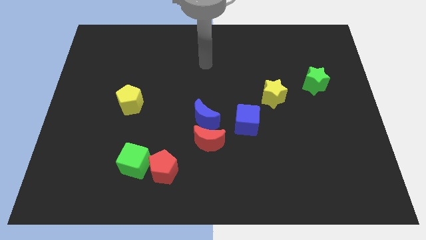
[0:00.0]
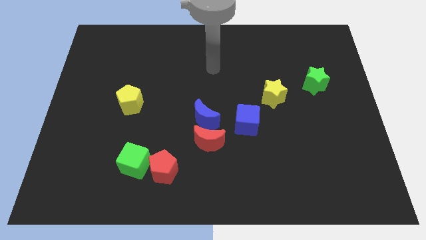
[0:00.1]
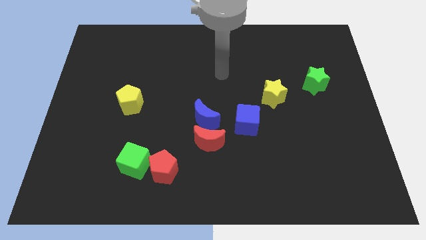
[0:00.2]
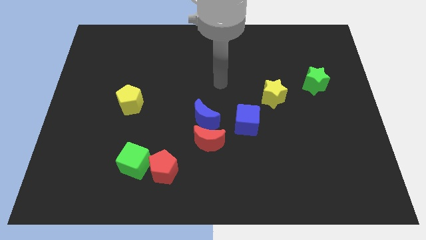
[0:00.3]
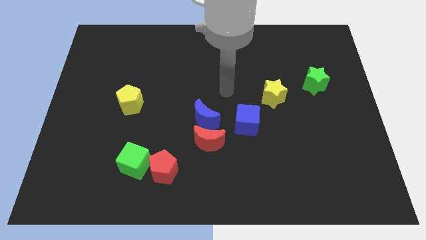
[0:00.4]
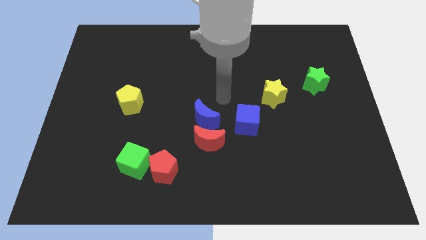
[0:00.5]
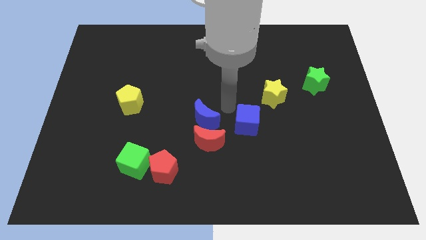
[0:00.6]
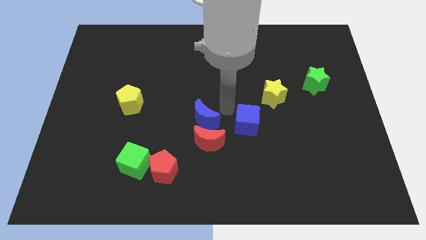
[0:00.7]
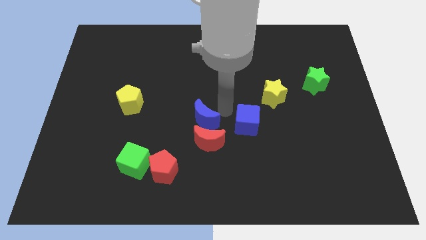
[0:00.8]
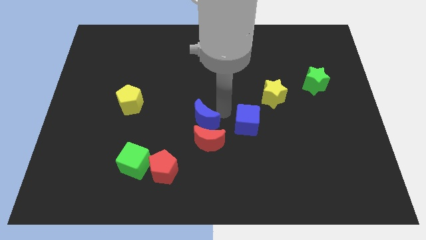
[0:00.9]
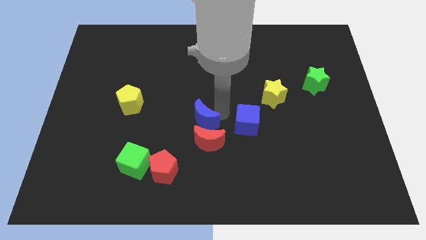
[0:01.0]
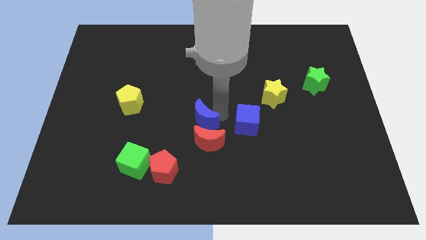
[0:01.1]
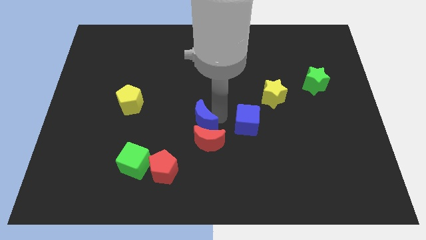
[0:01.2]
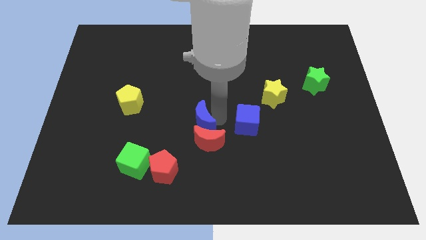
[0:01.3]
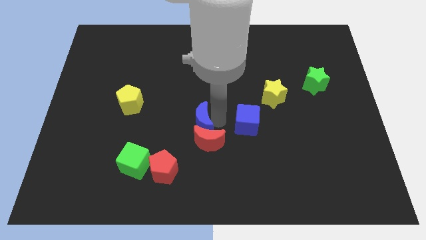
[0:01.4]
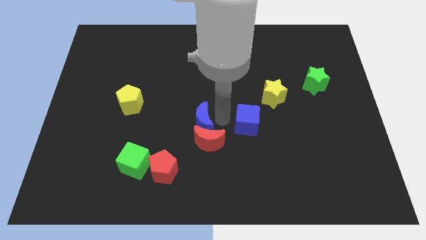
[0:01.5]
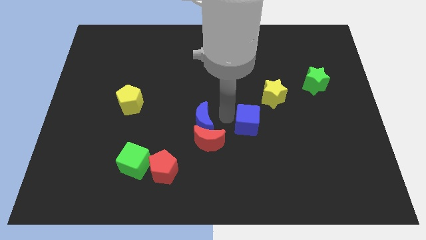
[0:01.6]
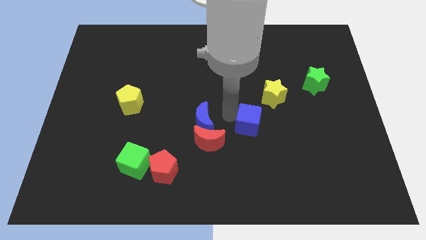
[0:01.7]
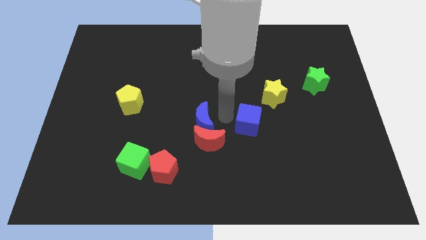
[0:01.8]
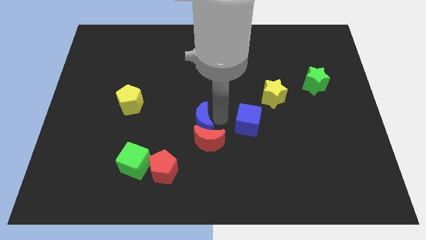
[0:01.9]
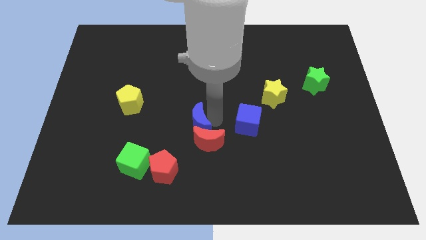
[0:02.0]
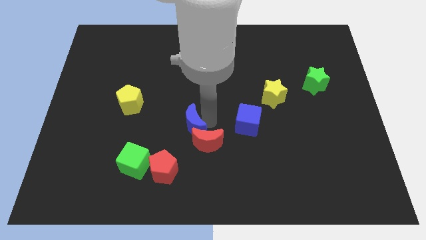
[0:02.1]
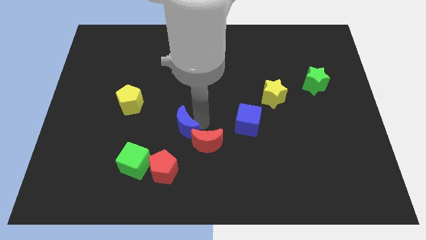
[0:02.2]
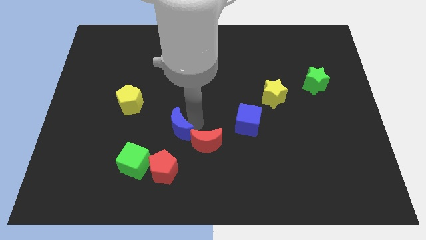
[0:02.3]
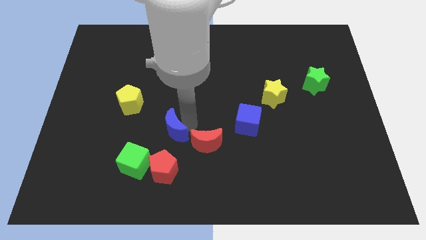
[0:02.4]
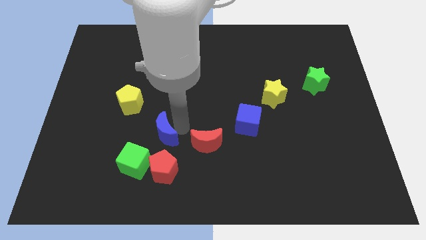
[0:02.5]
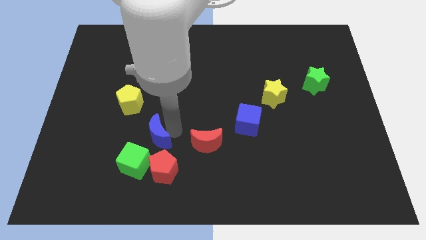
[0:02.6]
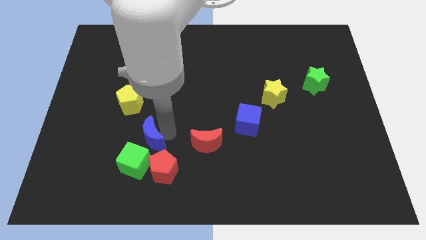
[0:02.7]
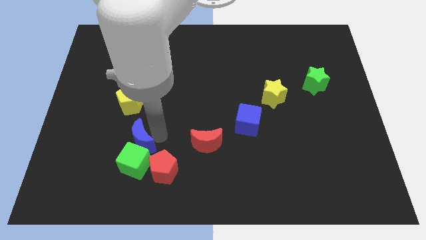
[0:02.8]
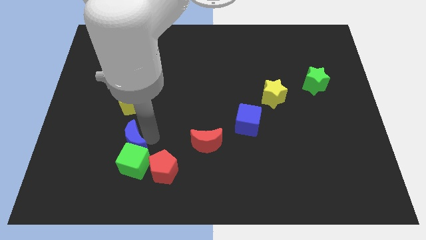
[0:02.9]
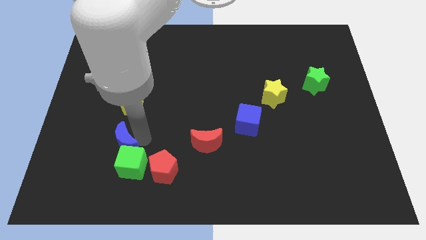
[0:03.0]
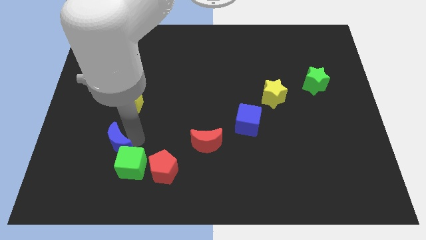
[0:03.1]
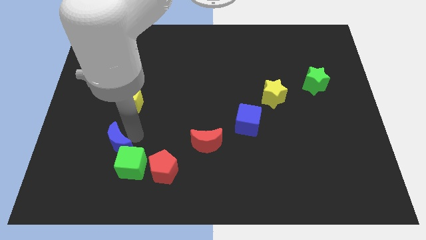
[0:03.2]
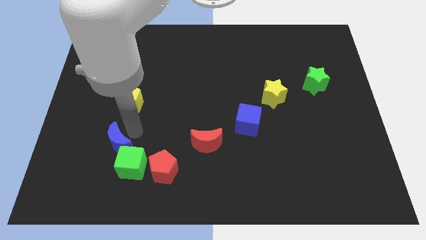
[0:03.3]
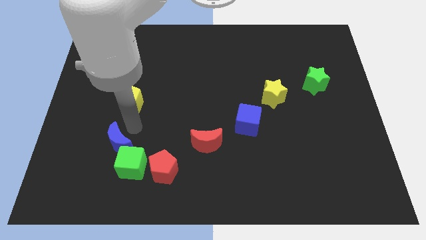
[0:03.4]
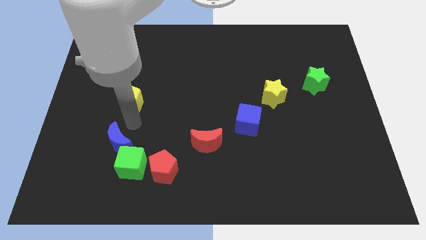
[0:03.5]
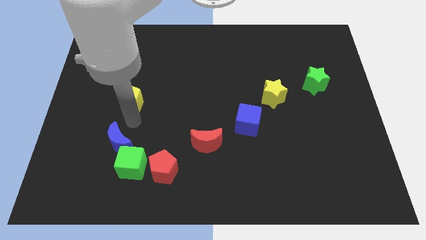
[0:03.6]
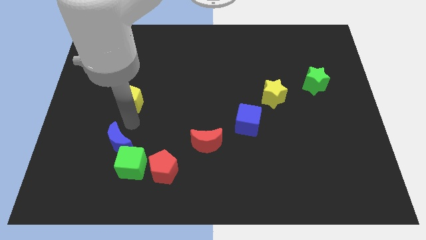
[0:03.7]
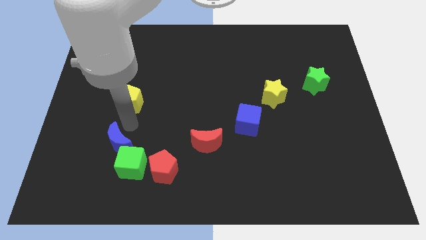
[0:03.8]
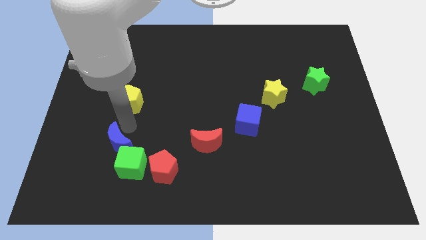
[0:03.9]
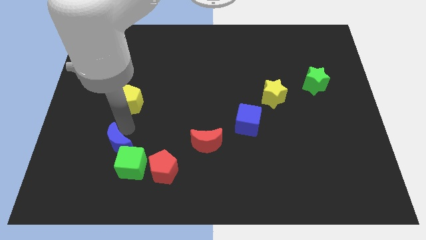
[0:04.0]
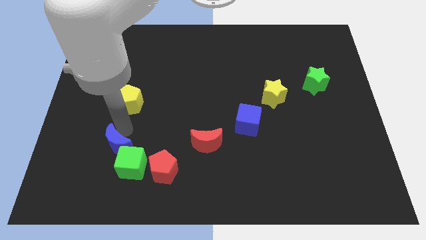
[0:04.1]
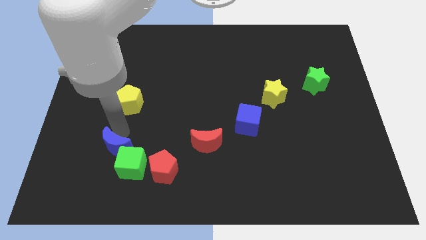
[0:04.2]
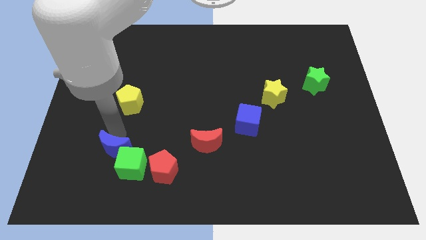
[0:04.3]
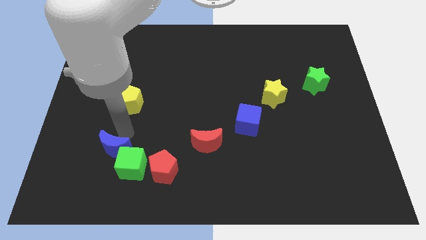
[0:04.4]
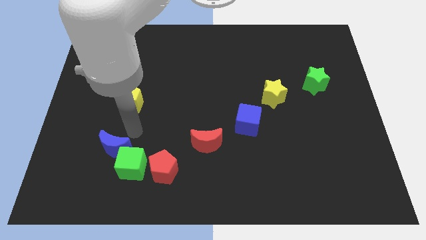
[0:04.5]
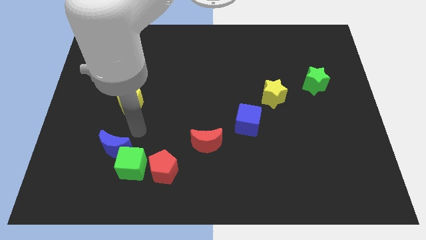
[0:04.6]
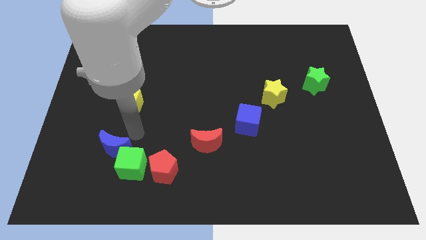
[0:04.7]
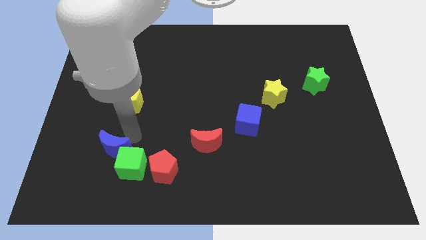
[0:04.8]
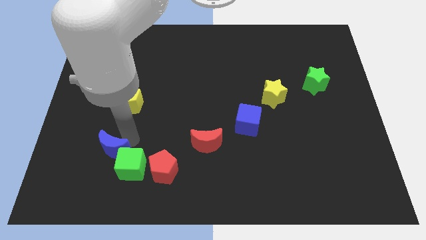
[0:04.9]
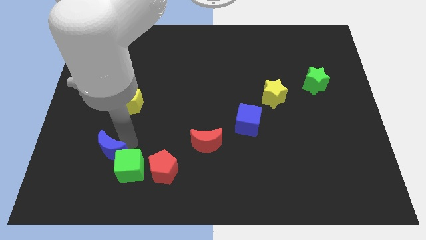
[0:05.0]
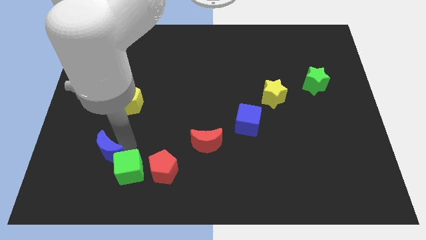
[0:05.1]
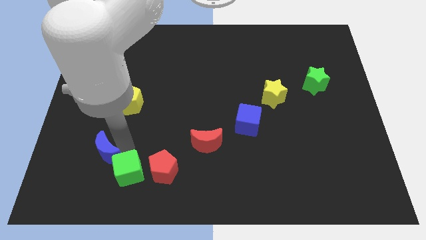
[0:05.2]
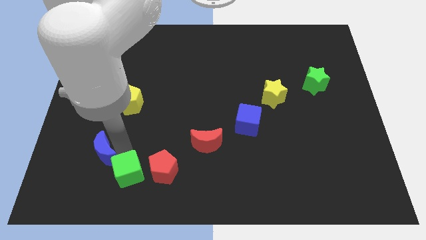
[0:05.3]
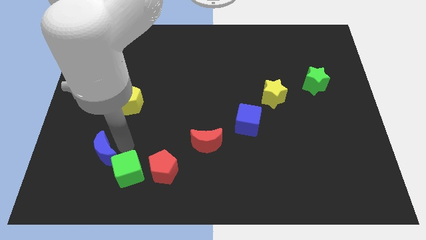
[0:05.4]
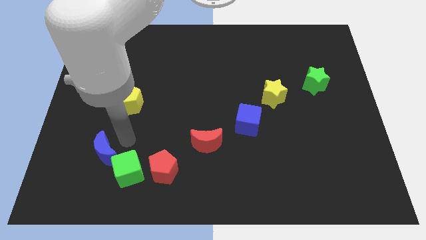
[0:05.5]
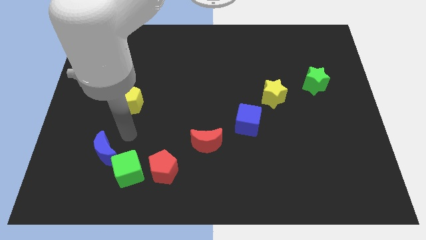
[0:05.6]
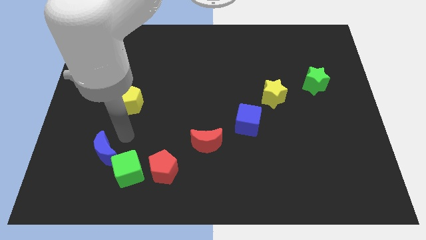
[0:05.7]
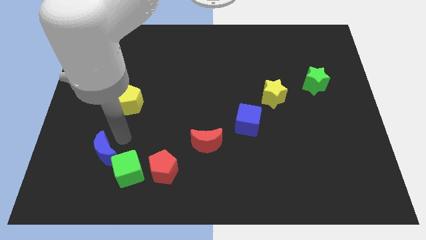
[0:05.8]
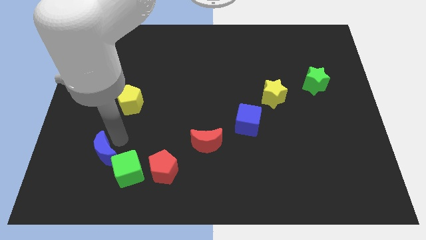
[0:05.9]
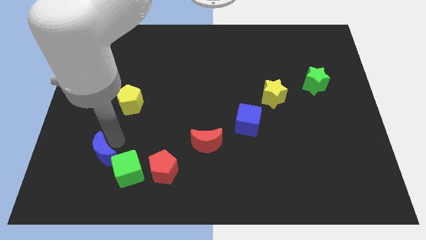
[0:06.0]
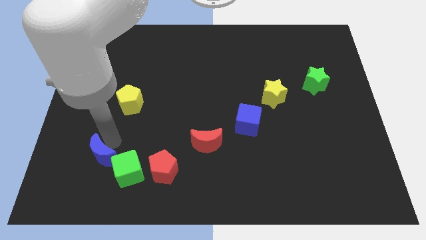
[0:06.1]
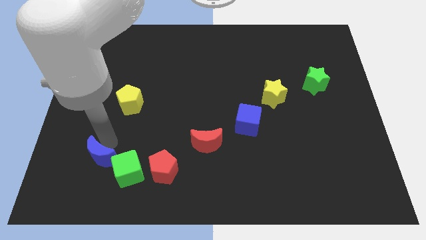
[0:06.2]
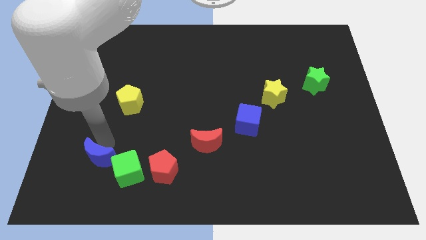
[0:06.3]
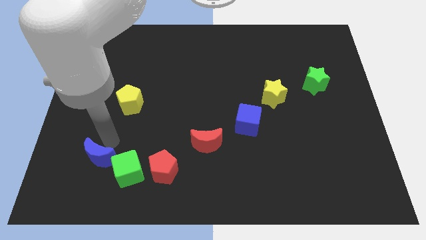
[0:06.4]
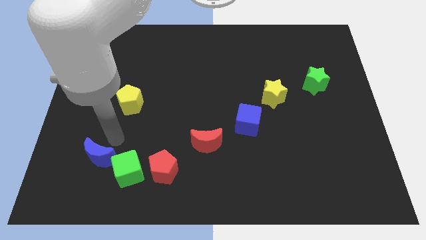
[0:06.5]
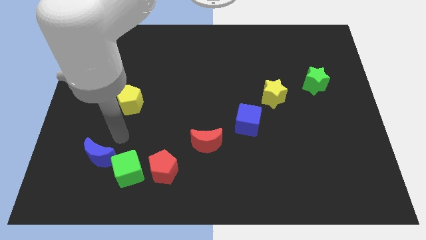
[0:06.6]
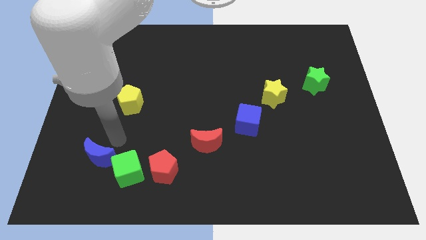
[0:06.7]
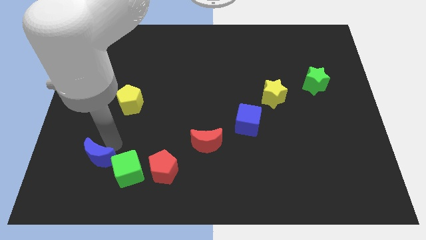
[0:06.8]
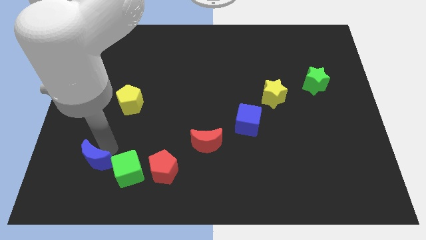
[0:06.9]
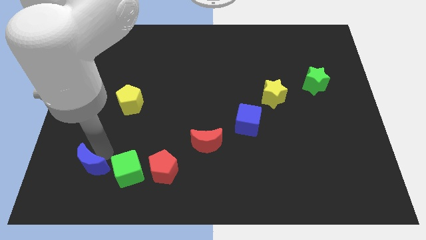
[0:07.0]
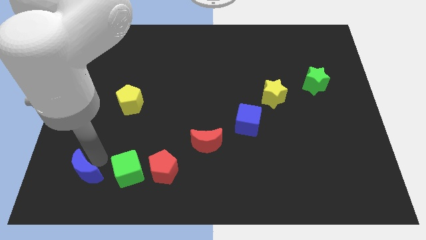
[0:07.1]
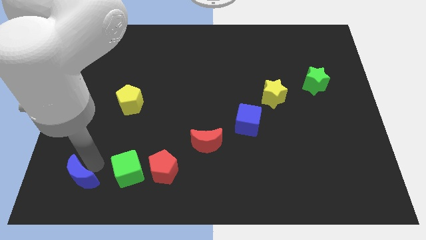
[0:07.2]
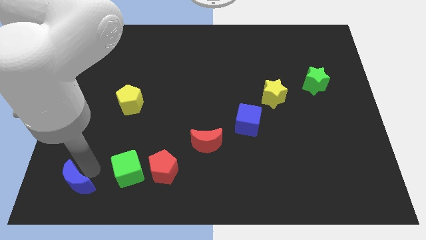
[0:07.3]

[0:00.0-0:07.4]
put the blue moon to the bottom left
